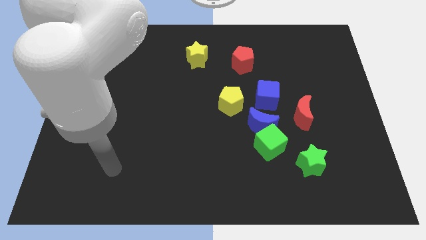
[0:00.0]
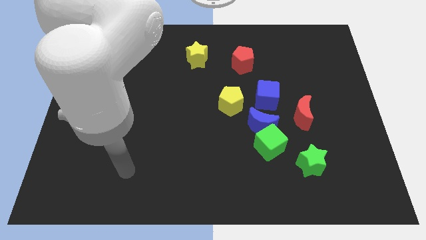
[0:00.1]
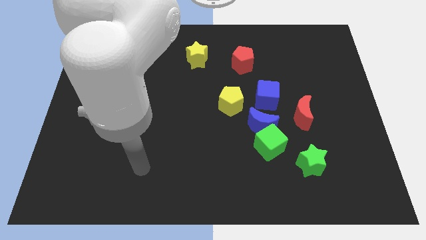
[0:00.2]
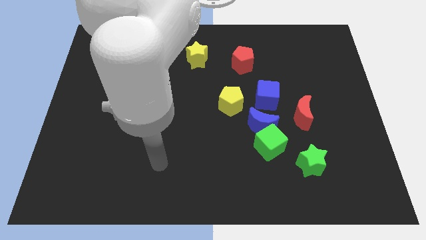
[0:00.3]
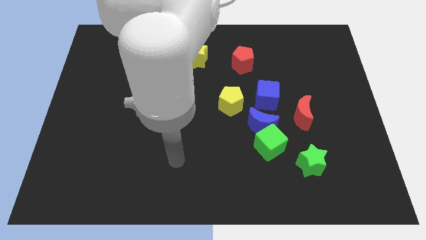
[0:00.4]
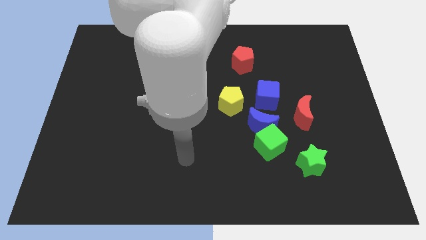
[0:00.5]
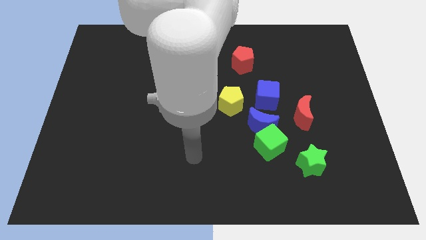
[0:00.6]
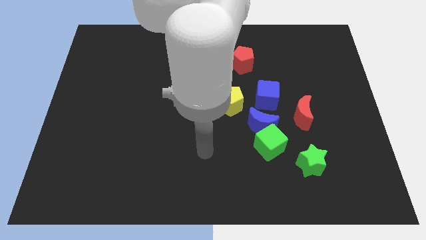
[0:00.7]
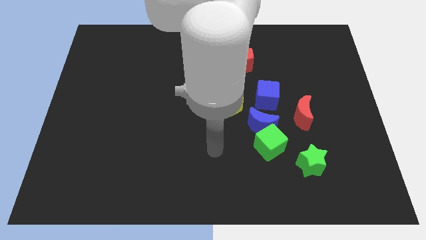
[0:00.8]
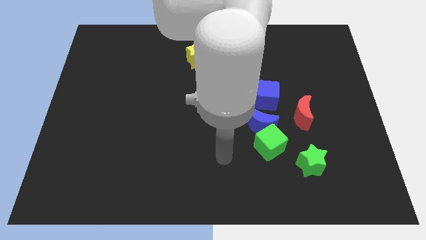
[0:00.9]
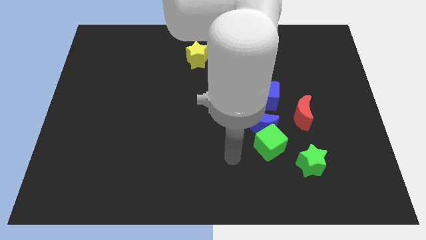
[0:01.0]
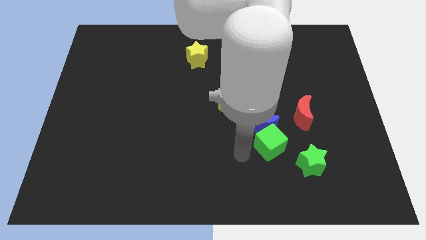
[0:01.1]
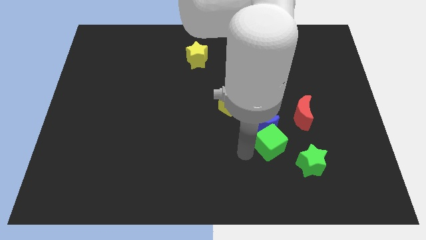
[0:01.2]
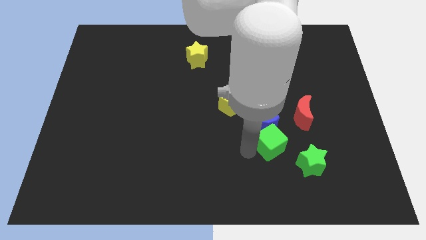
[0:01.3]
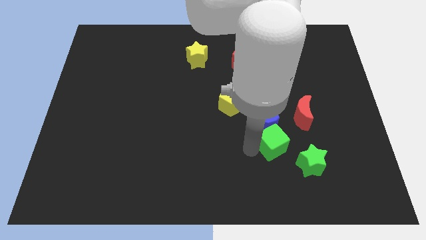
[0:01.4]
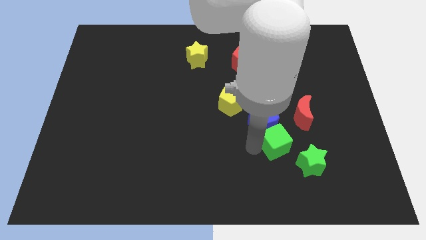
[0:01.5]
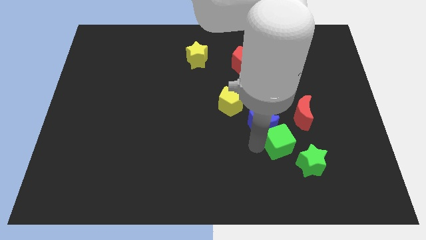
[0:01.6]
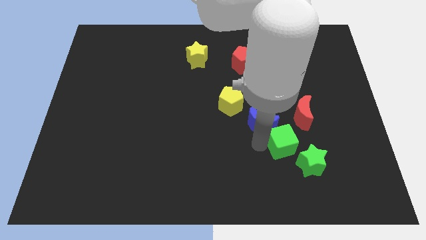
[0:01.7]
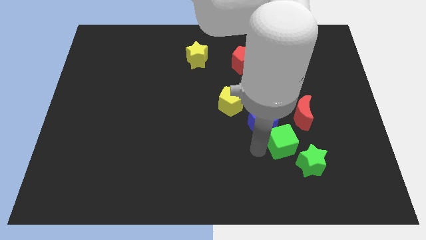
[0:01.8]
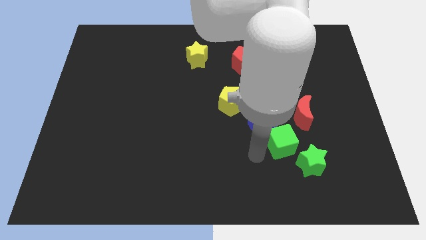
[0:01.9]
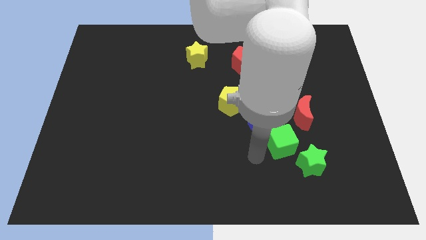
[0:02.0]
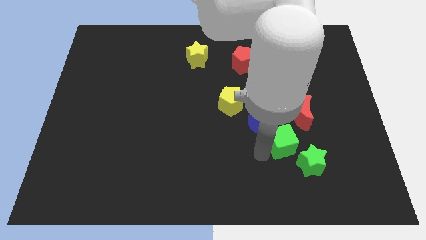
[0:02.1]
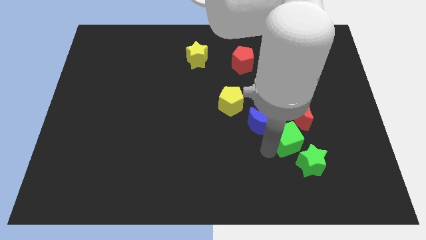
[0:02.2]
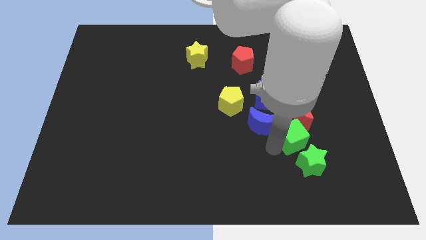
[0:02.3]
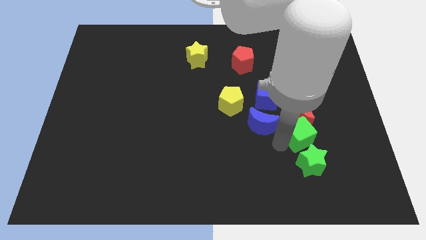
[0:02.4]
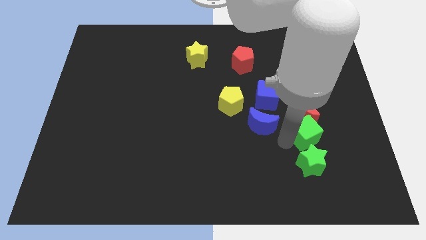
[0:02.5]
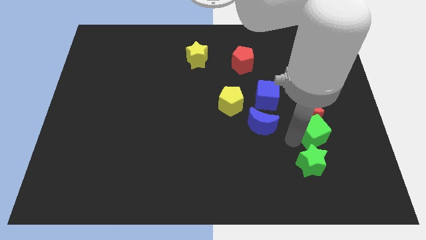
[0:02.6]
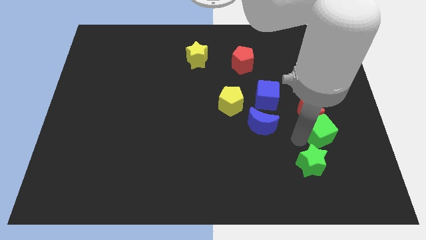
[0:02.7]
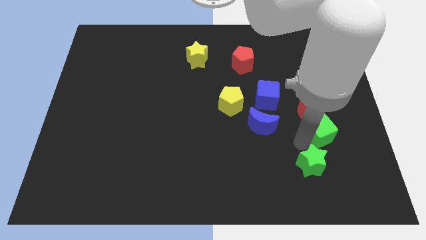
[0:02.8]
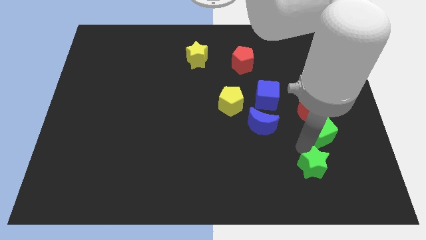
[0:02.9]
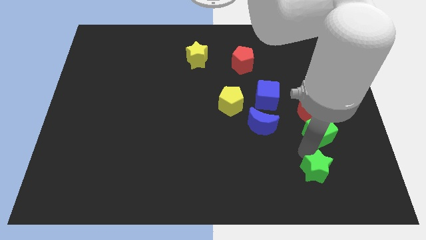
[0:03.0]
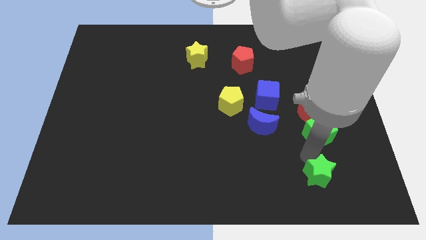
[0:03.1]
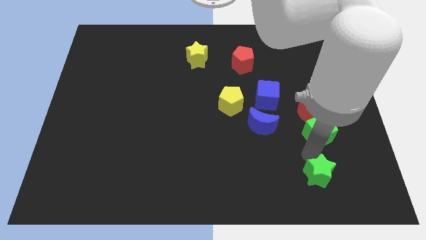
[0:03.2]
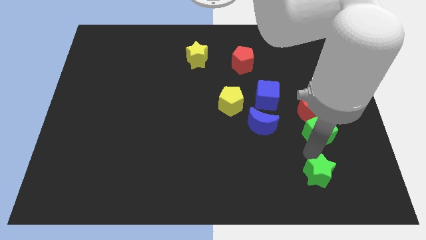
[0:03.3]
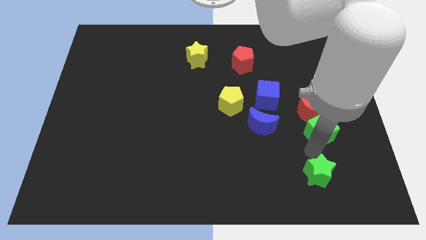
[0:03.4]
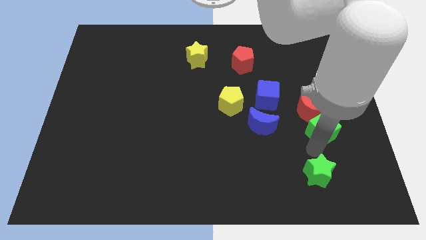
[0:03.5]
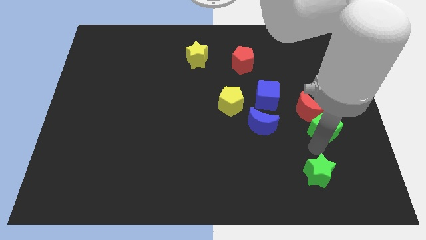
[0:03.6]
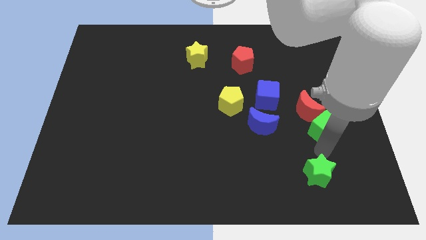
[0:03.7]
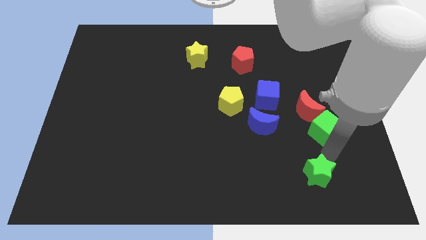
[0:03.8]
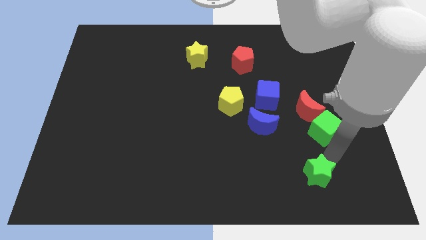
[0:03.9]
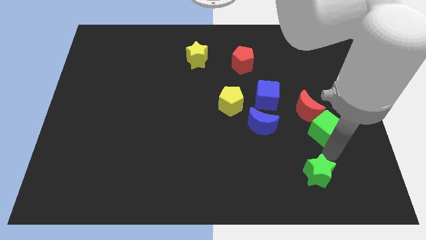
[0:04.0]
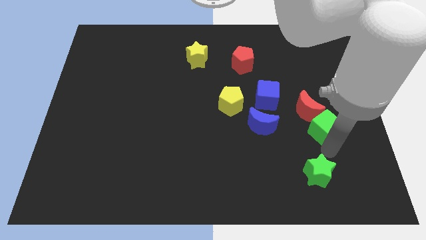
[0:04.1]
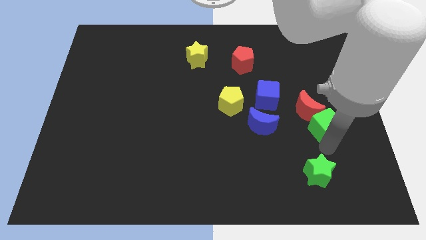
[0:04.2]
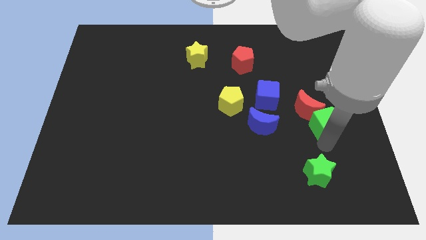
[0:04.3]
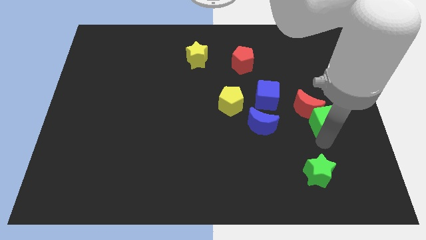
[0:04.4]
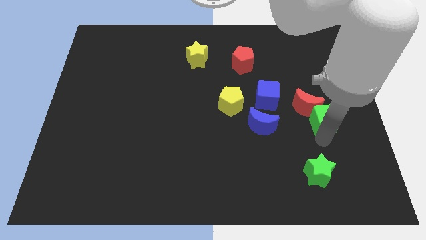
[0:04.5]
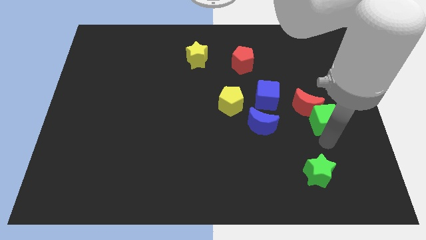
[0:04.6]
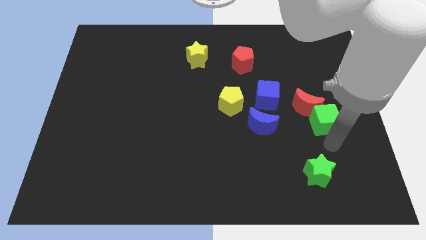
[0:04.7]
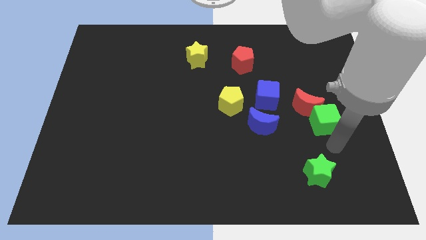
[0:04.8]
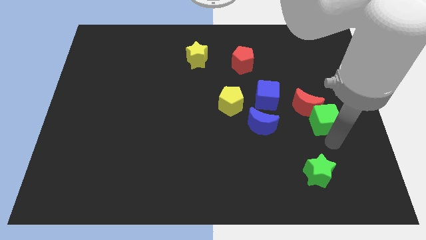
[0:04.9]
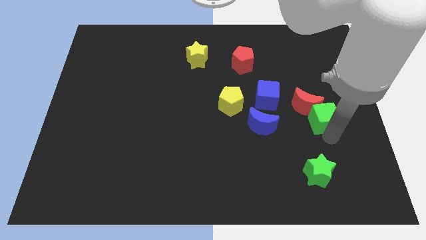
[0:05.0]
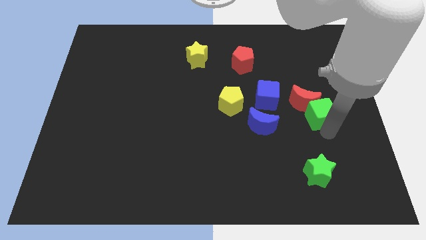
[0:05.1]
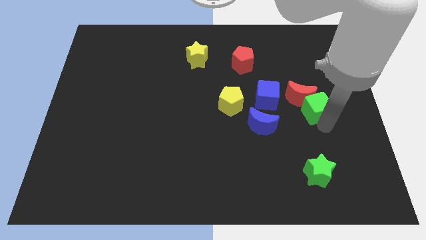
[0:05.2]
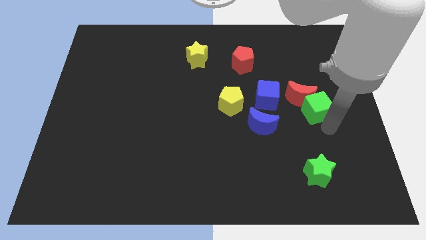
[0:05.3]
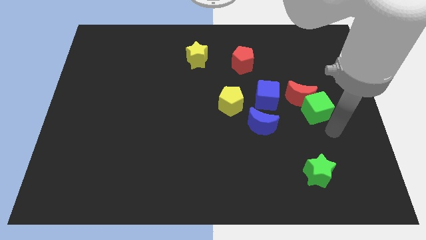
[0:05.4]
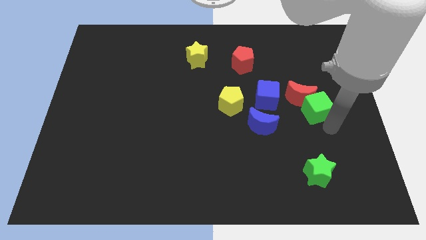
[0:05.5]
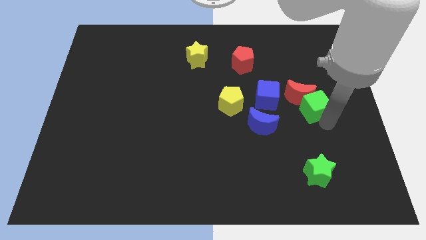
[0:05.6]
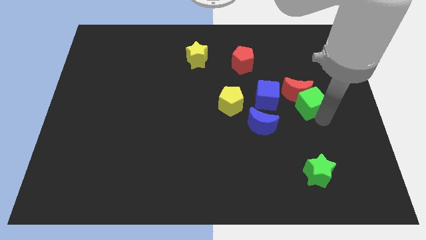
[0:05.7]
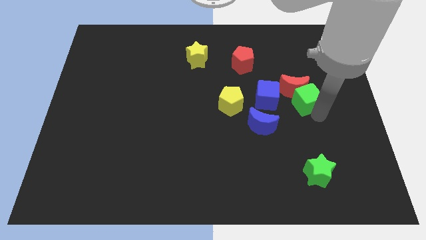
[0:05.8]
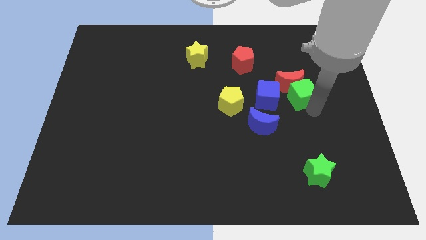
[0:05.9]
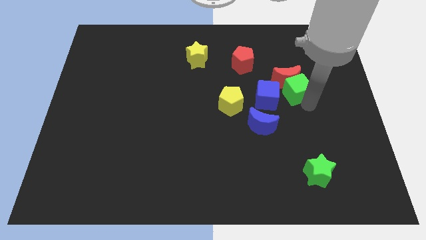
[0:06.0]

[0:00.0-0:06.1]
move the green cube diagonally up and to the right of the blue cube

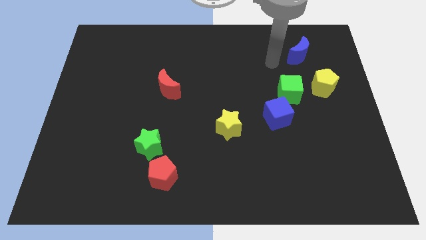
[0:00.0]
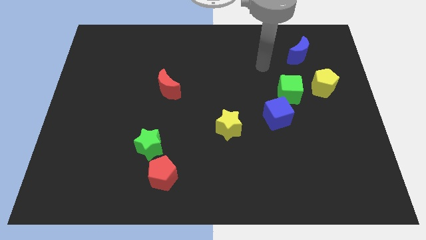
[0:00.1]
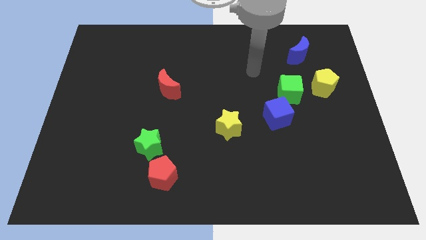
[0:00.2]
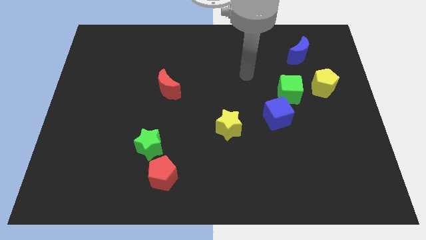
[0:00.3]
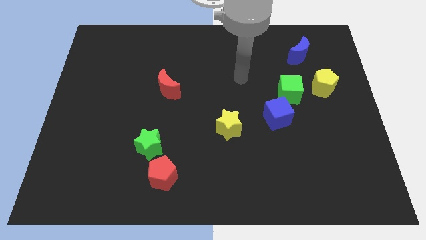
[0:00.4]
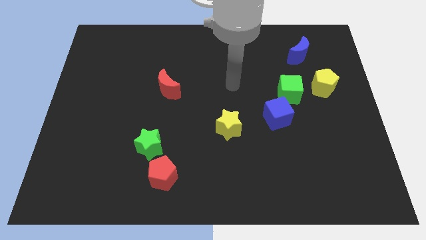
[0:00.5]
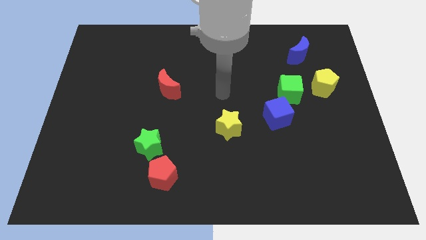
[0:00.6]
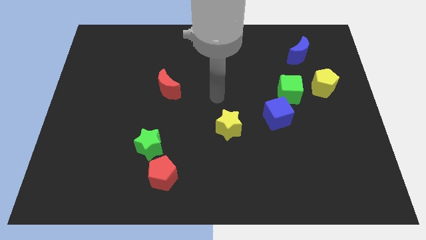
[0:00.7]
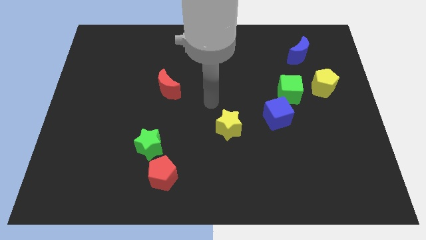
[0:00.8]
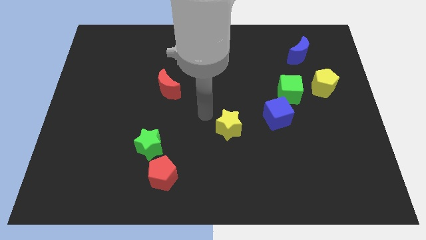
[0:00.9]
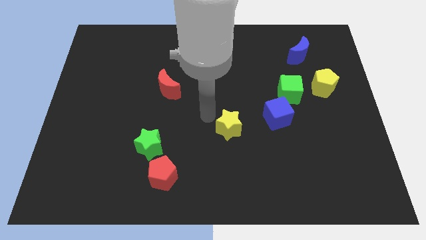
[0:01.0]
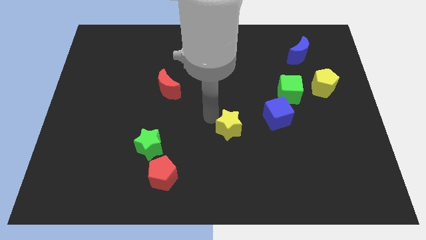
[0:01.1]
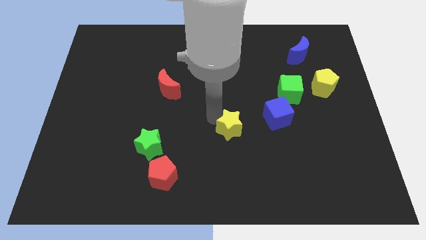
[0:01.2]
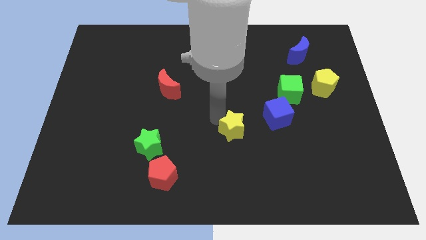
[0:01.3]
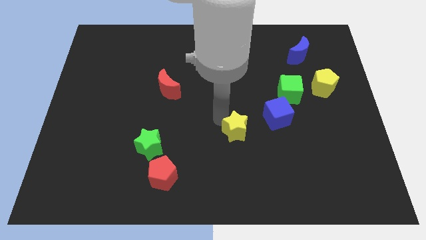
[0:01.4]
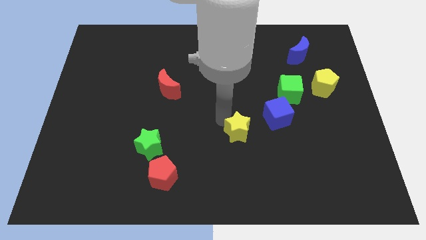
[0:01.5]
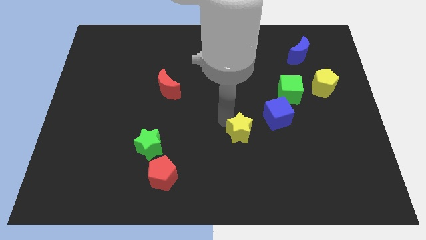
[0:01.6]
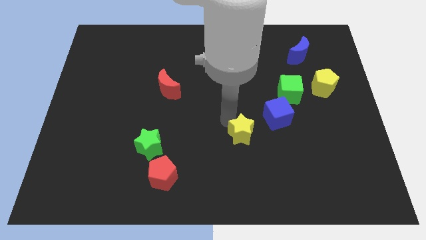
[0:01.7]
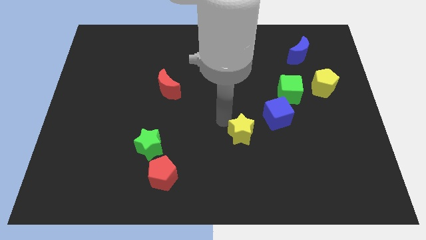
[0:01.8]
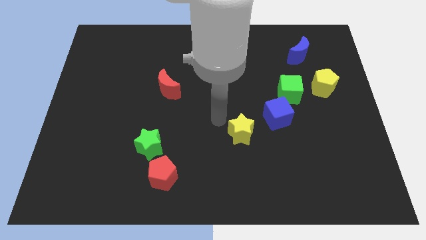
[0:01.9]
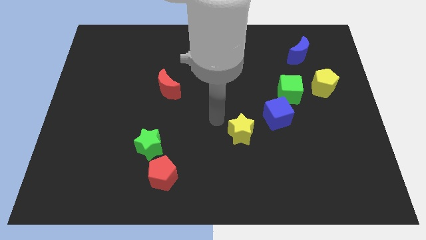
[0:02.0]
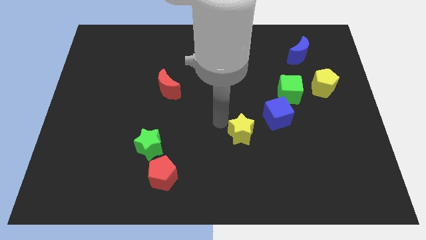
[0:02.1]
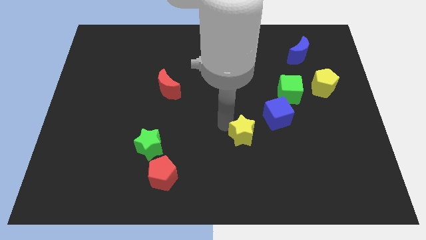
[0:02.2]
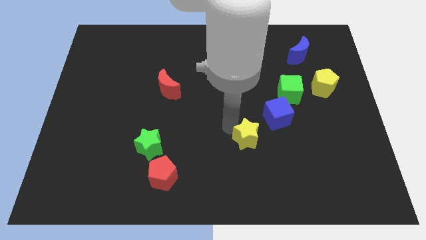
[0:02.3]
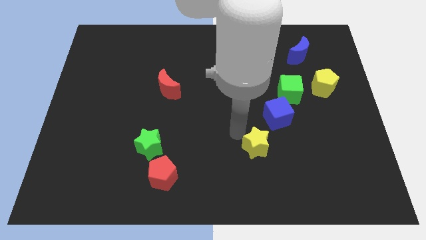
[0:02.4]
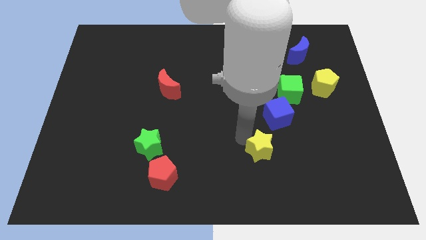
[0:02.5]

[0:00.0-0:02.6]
put the yellow star to the bottom of the blue cube
